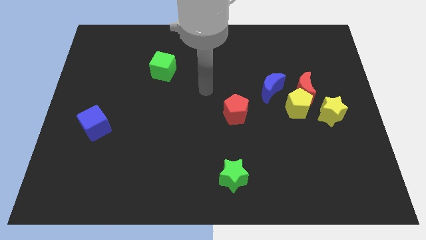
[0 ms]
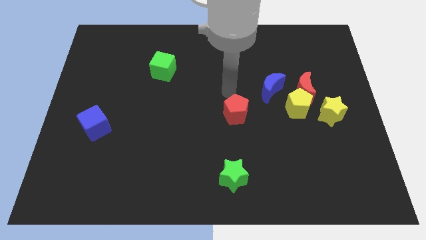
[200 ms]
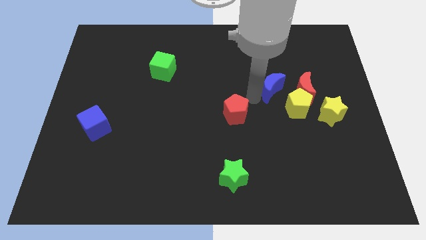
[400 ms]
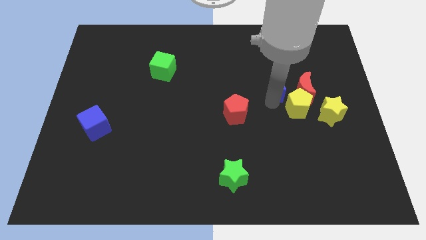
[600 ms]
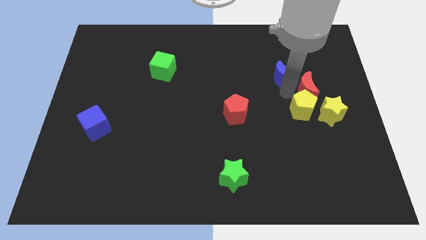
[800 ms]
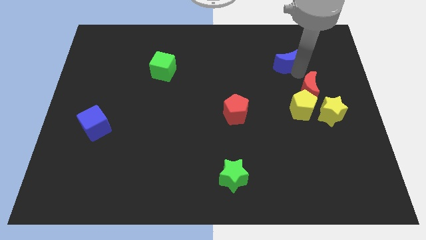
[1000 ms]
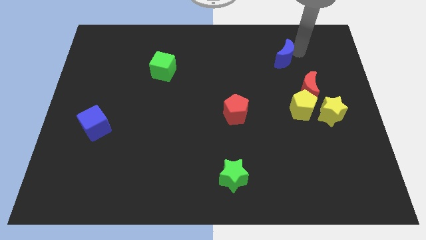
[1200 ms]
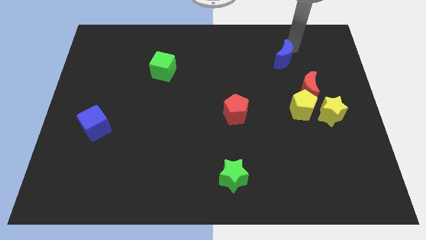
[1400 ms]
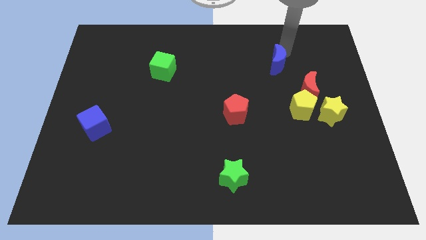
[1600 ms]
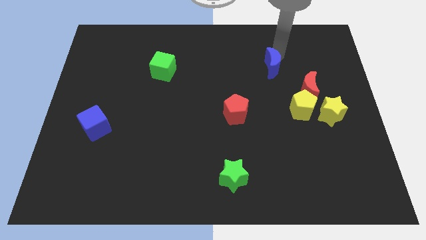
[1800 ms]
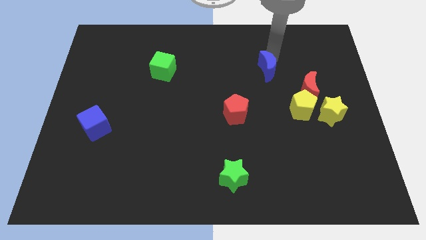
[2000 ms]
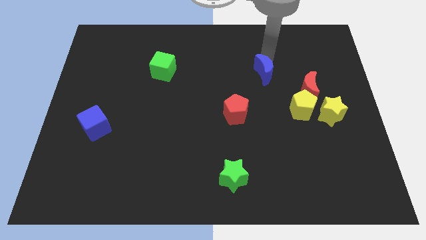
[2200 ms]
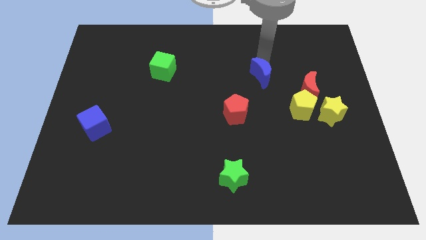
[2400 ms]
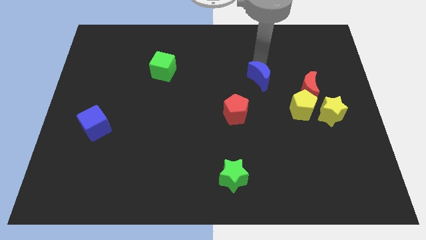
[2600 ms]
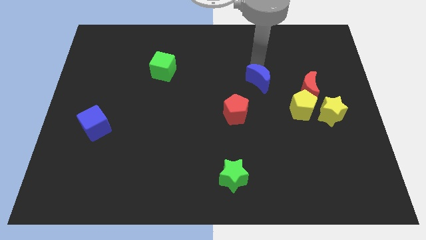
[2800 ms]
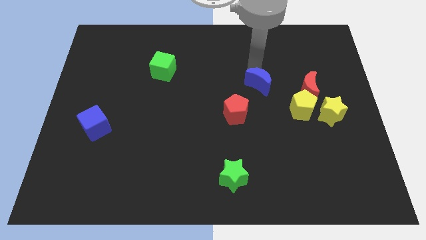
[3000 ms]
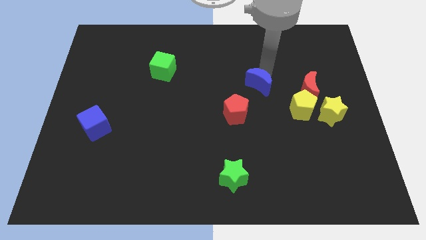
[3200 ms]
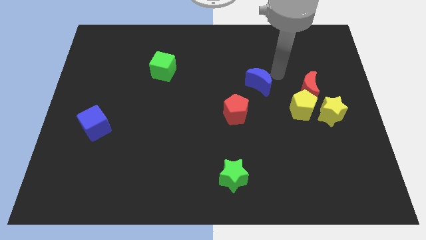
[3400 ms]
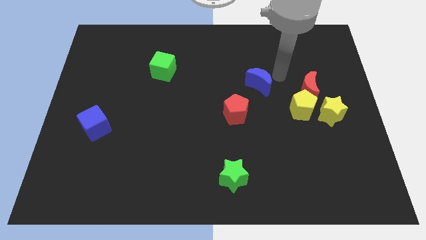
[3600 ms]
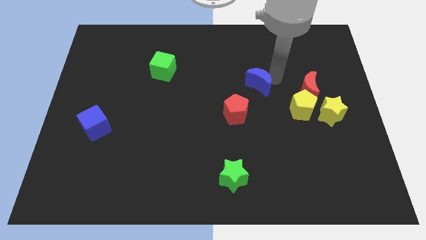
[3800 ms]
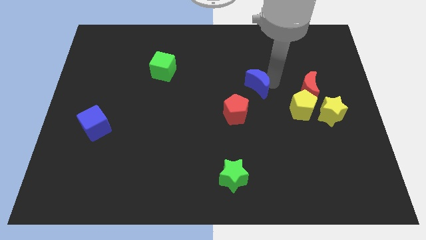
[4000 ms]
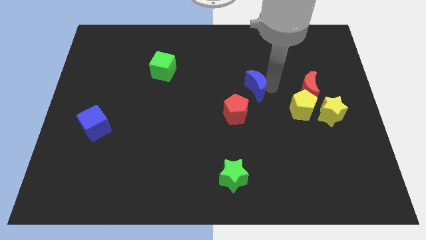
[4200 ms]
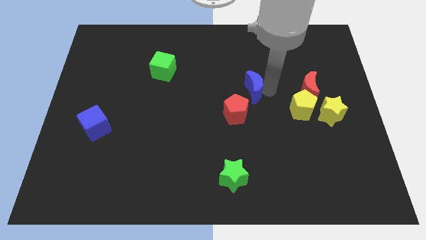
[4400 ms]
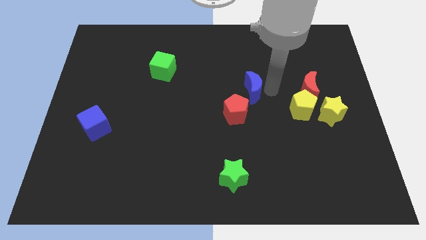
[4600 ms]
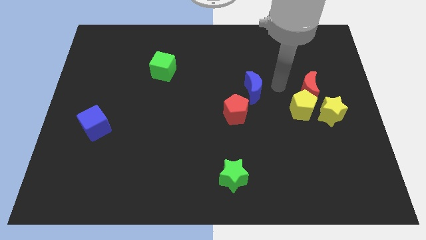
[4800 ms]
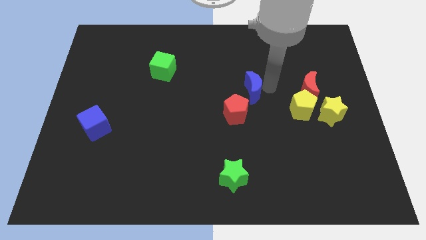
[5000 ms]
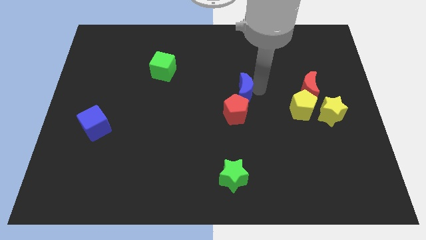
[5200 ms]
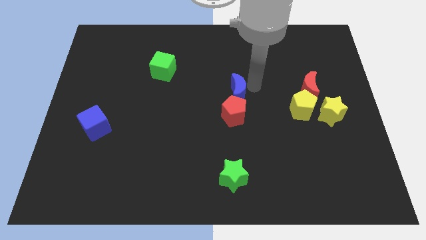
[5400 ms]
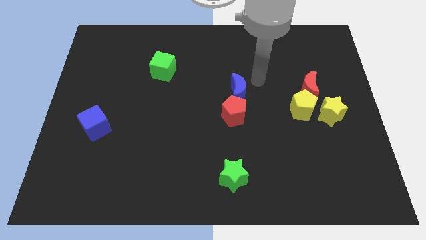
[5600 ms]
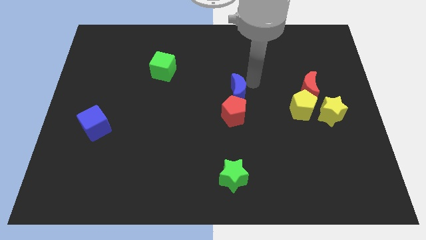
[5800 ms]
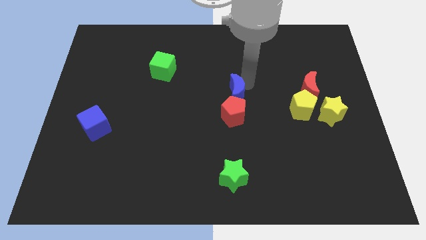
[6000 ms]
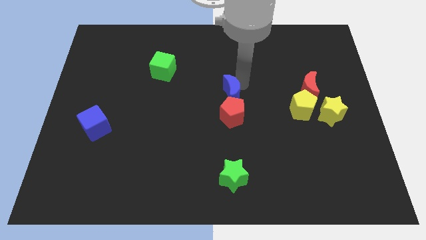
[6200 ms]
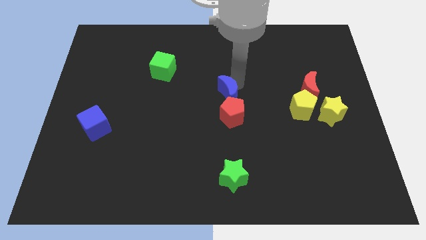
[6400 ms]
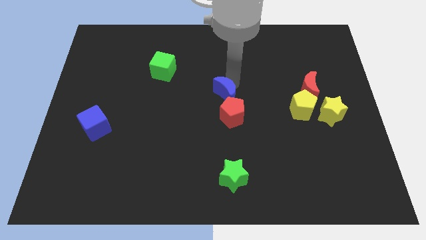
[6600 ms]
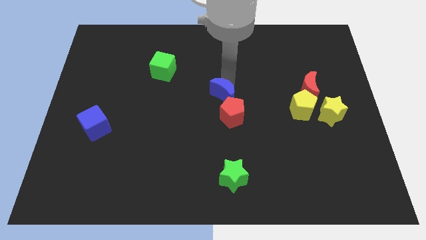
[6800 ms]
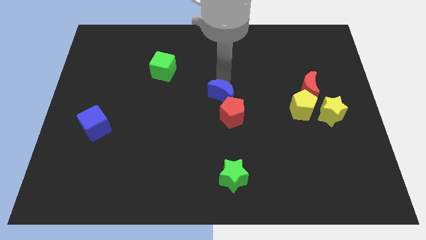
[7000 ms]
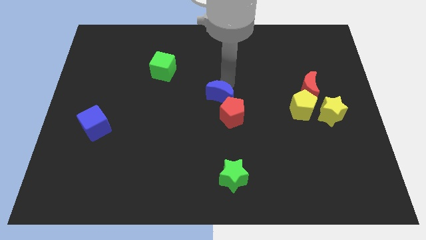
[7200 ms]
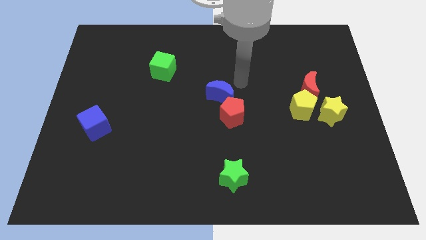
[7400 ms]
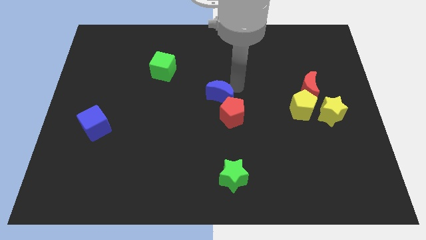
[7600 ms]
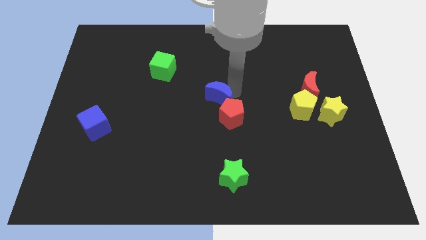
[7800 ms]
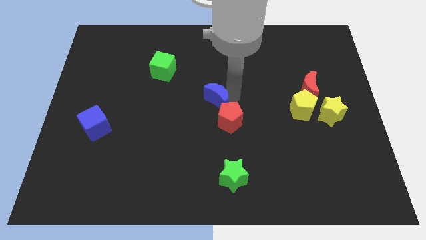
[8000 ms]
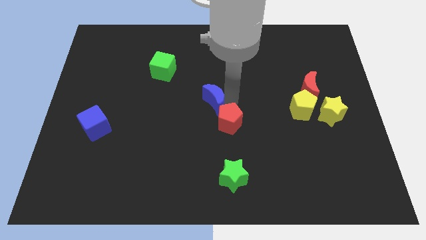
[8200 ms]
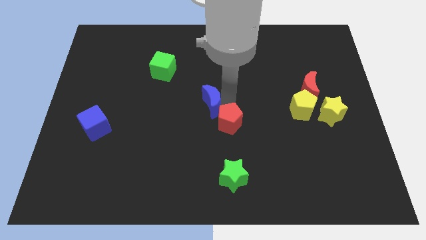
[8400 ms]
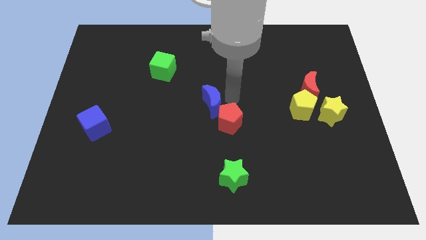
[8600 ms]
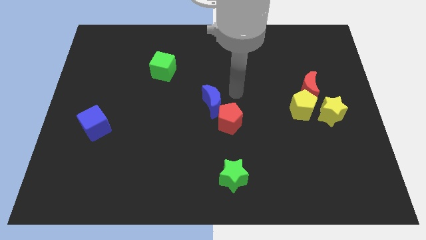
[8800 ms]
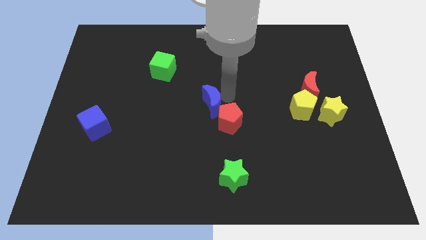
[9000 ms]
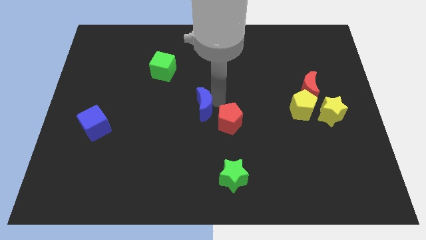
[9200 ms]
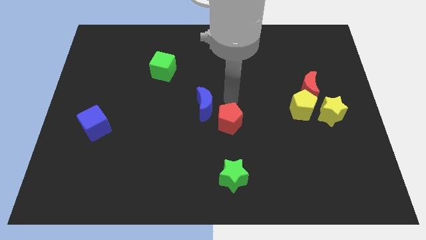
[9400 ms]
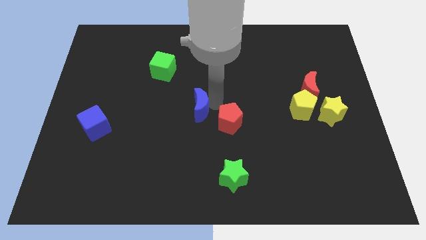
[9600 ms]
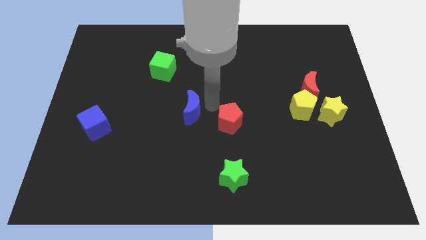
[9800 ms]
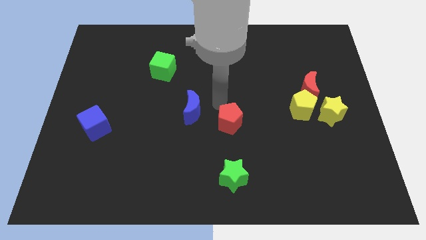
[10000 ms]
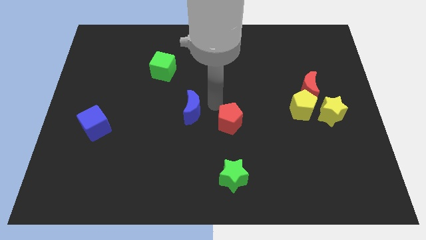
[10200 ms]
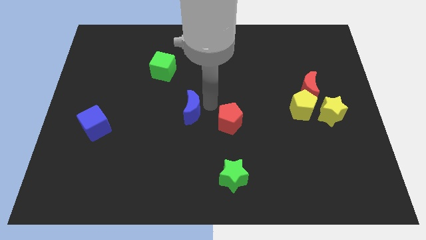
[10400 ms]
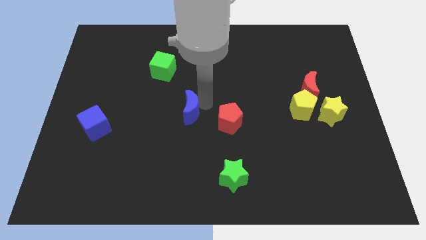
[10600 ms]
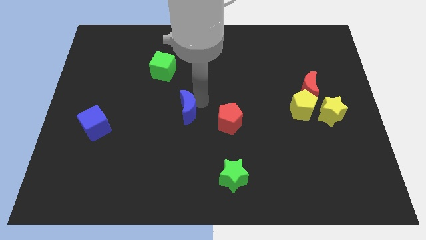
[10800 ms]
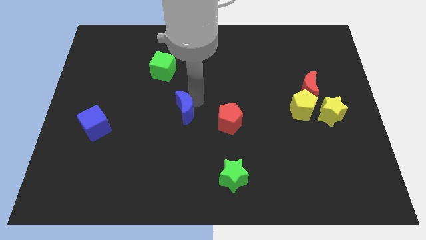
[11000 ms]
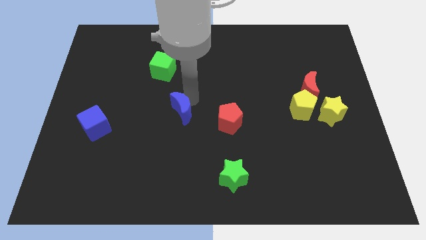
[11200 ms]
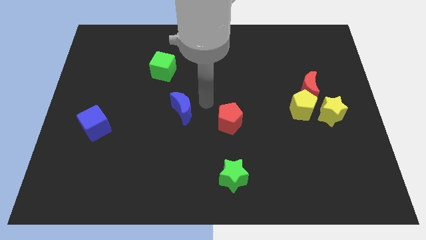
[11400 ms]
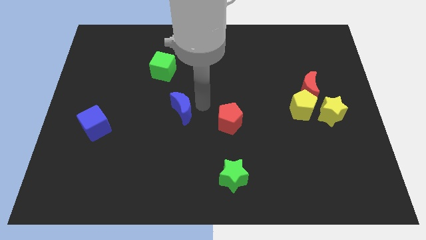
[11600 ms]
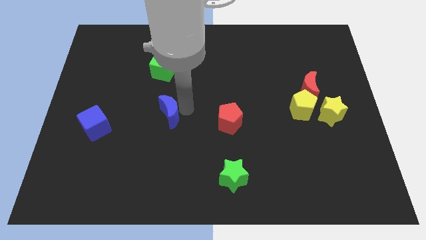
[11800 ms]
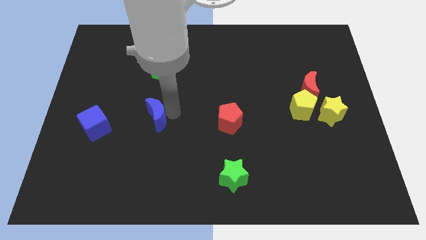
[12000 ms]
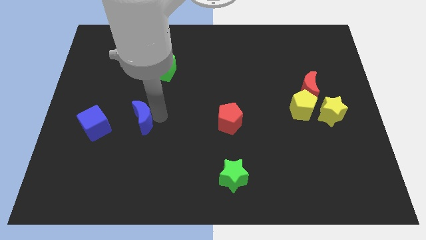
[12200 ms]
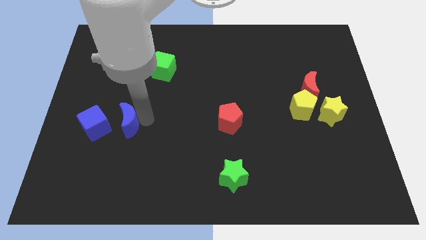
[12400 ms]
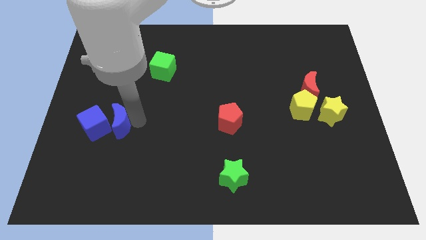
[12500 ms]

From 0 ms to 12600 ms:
push the blue moon close to the blue cube

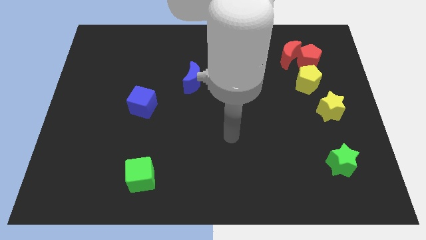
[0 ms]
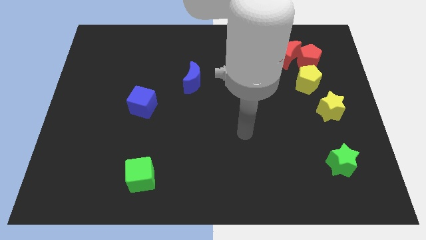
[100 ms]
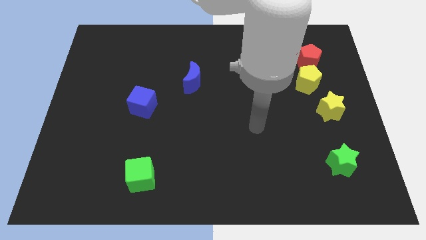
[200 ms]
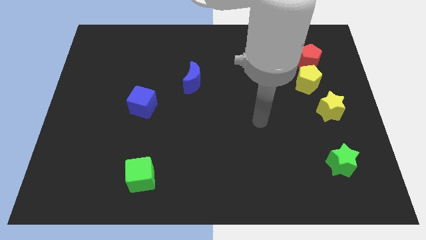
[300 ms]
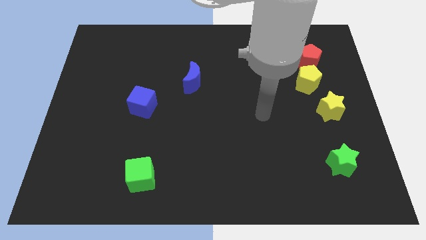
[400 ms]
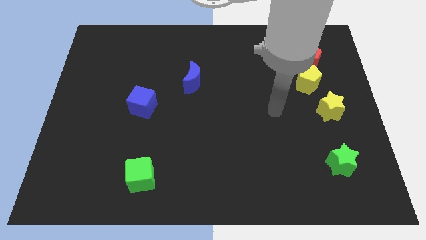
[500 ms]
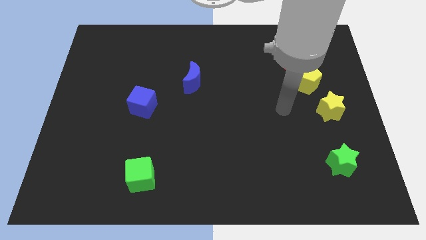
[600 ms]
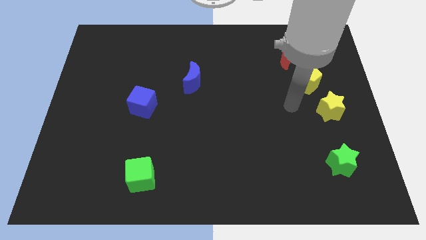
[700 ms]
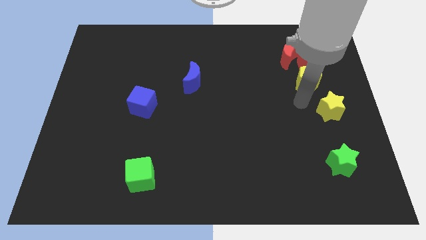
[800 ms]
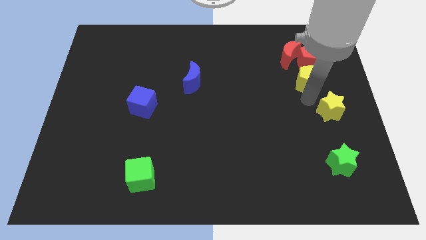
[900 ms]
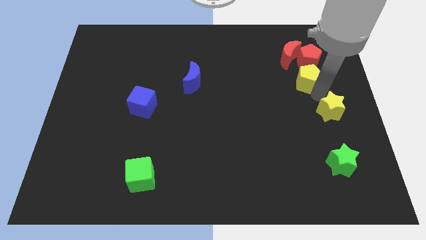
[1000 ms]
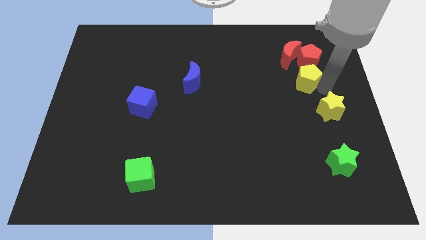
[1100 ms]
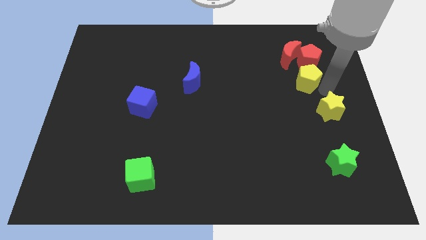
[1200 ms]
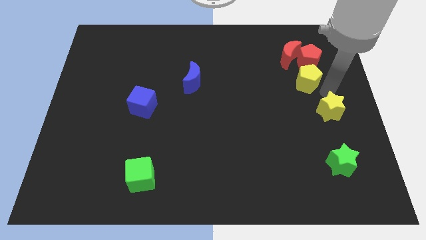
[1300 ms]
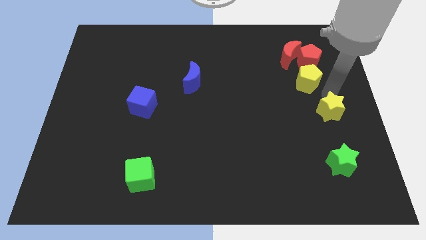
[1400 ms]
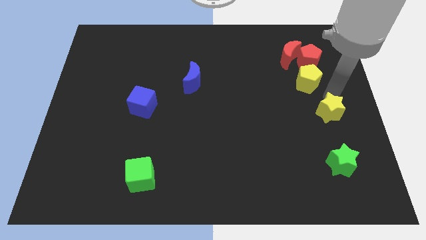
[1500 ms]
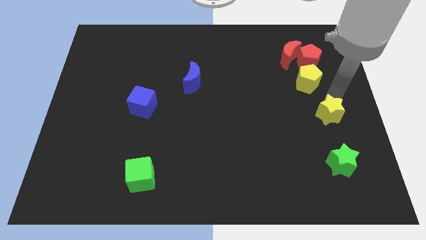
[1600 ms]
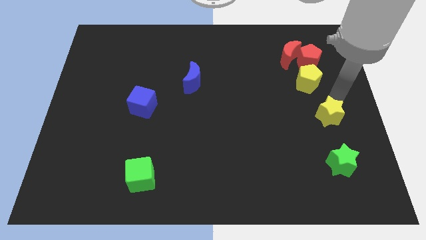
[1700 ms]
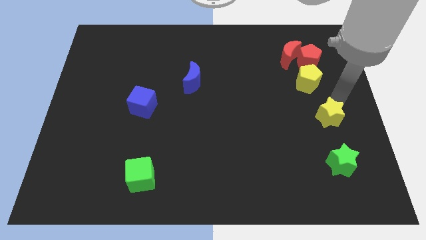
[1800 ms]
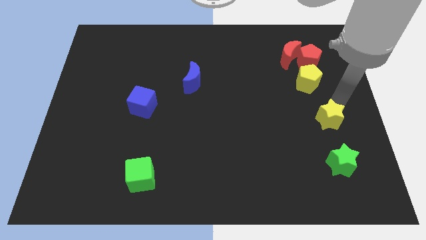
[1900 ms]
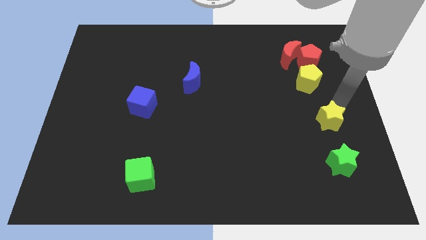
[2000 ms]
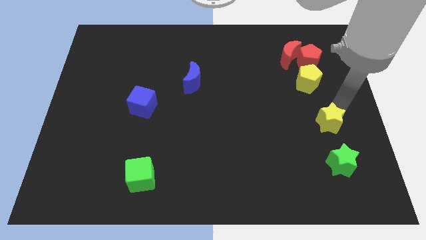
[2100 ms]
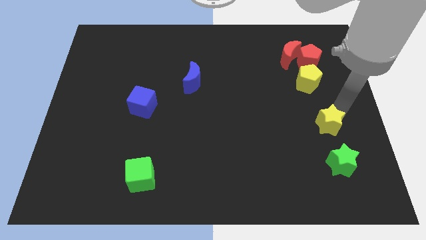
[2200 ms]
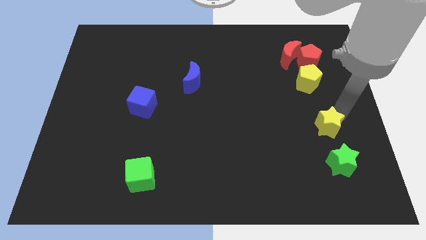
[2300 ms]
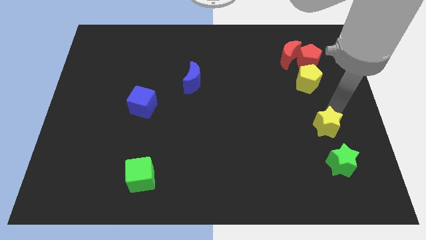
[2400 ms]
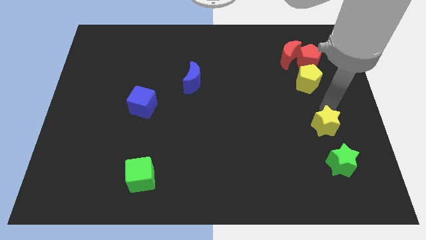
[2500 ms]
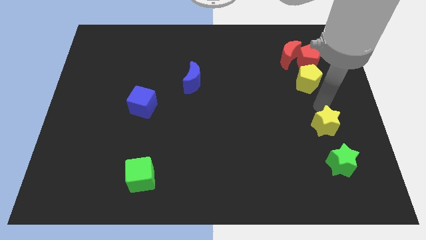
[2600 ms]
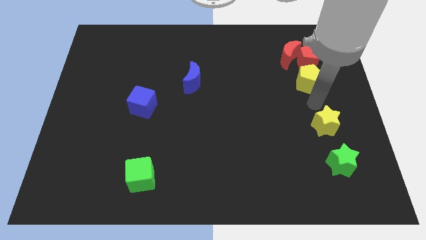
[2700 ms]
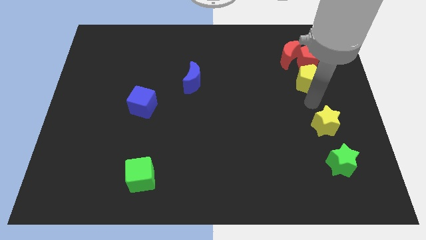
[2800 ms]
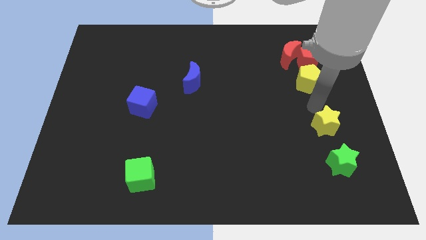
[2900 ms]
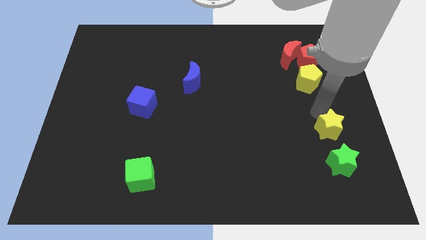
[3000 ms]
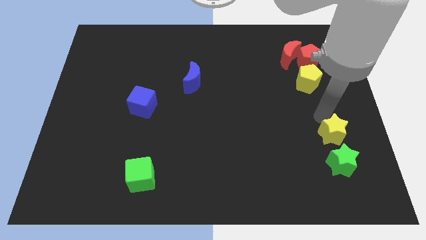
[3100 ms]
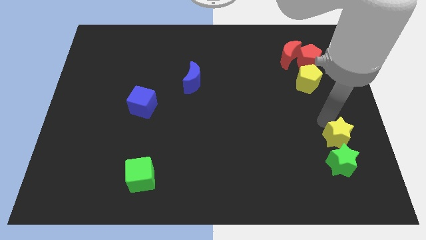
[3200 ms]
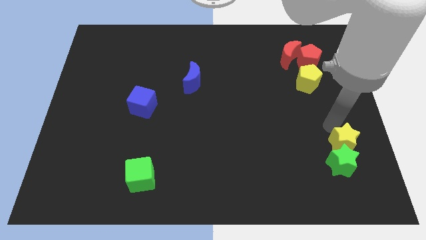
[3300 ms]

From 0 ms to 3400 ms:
push the yellow star to the green star
